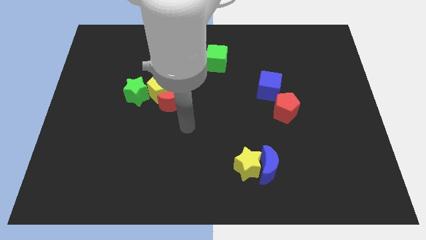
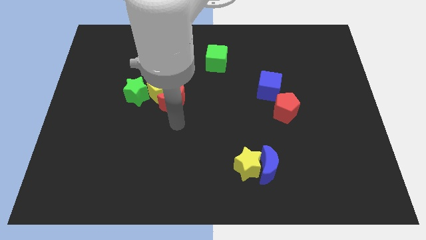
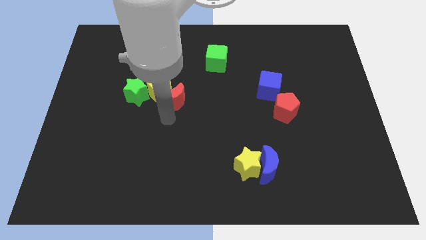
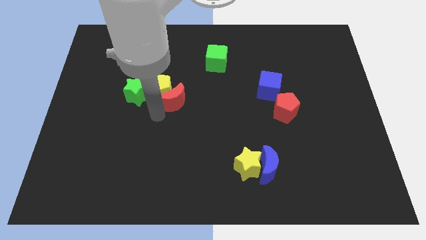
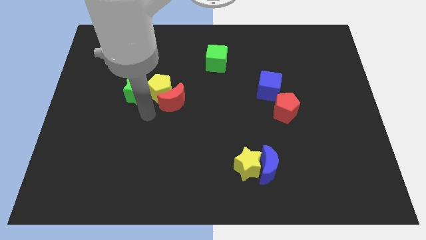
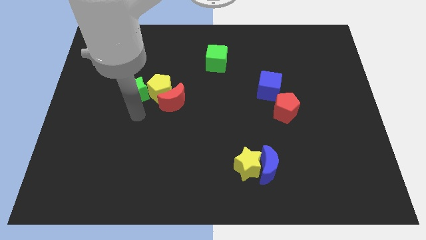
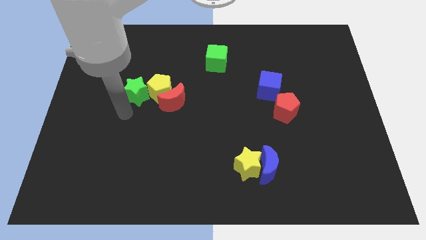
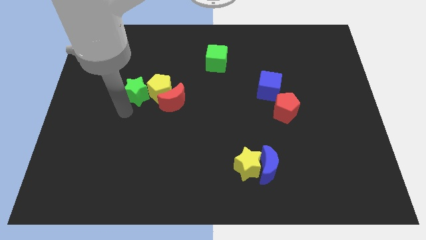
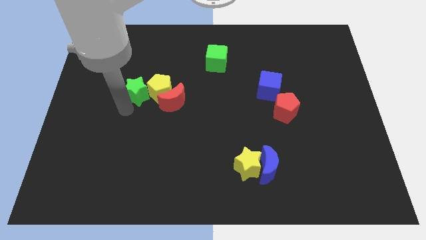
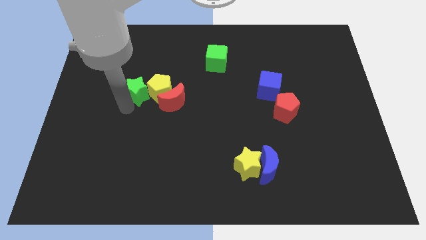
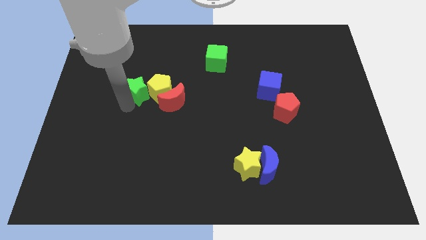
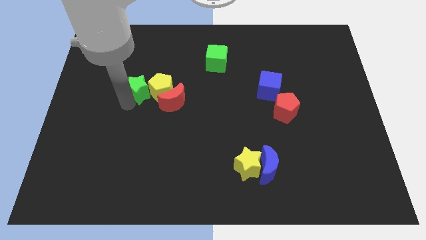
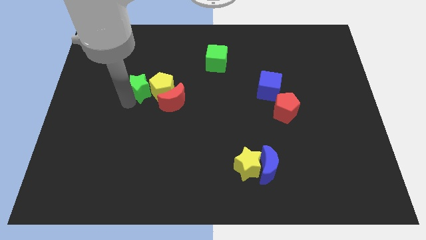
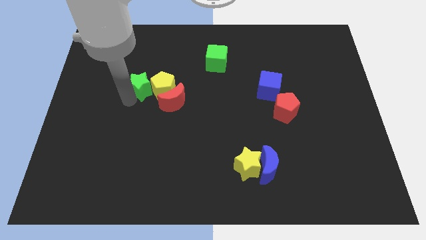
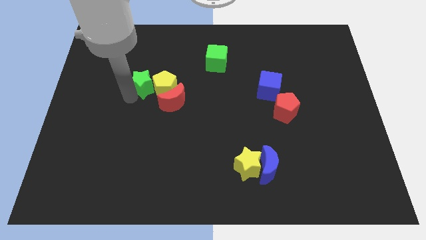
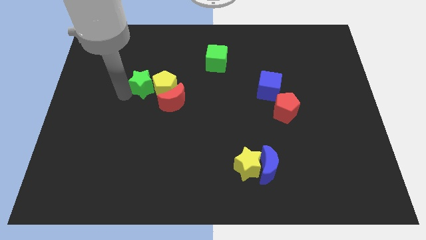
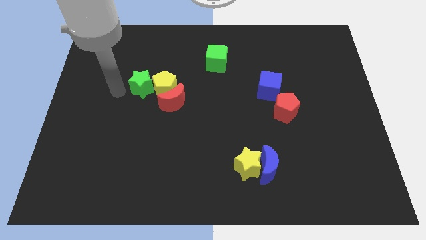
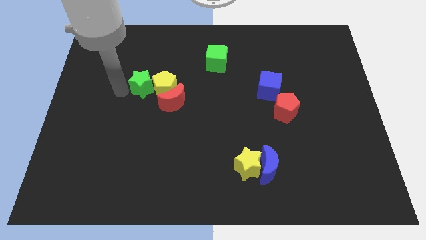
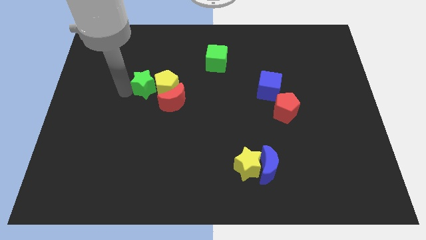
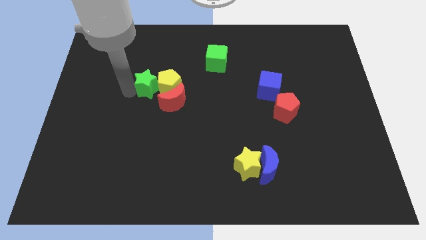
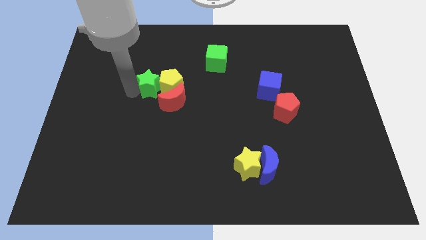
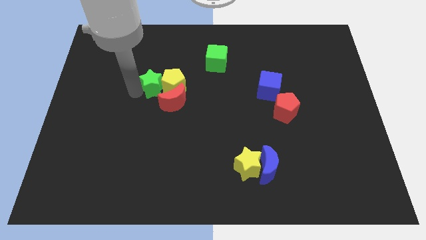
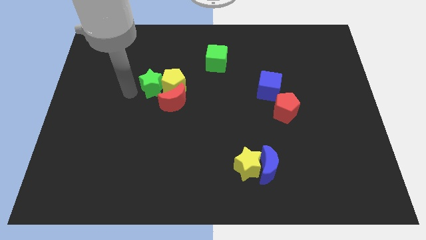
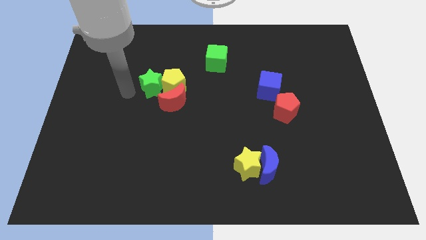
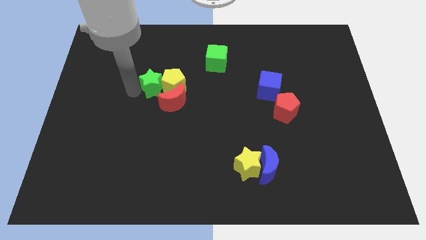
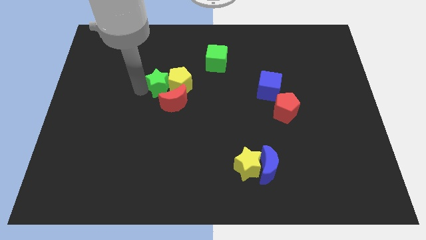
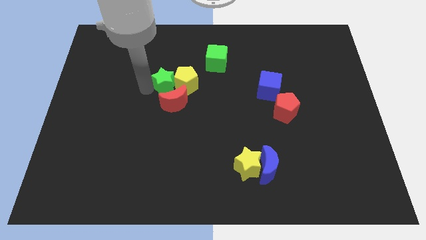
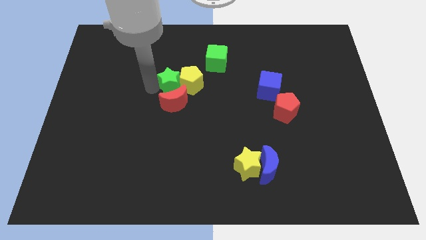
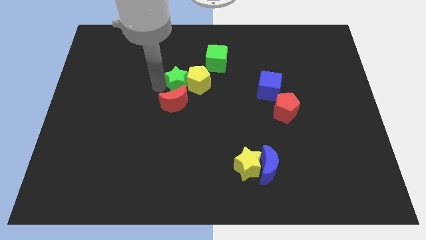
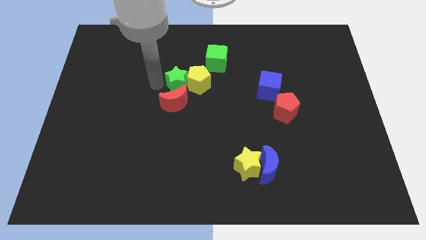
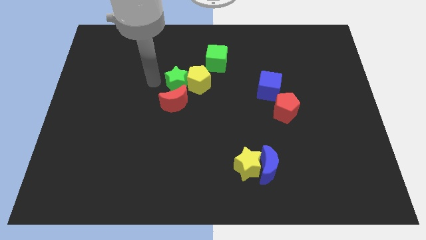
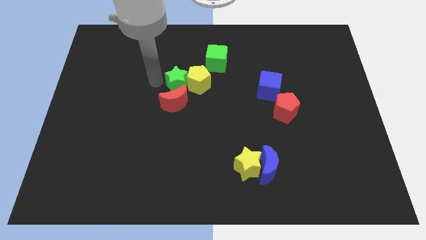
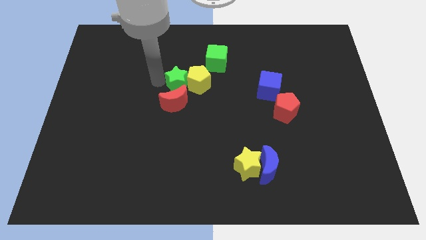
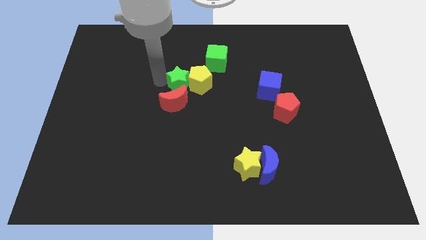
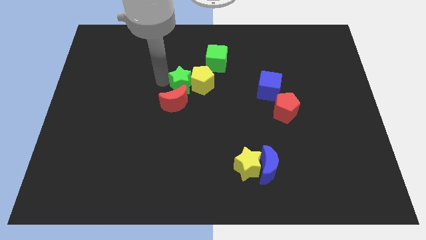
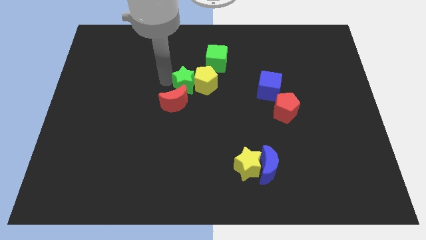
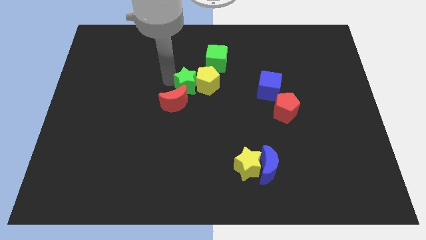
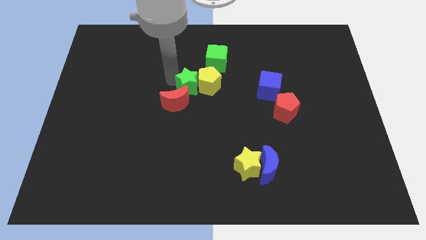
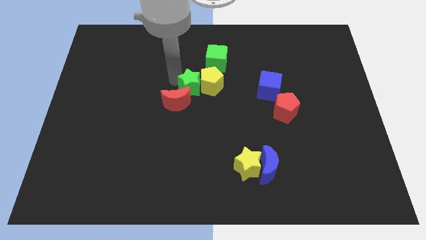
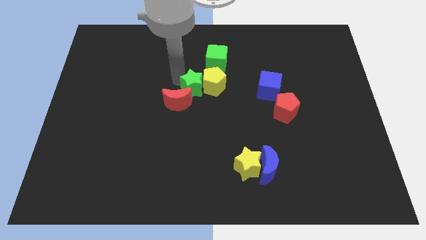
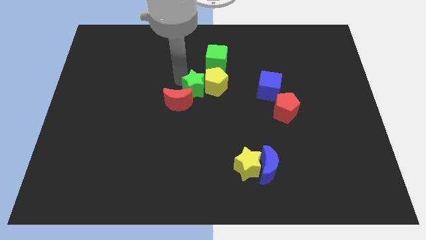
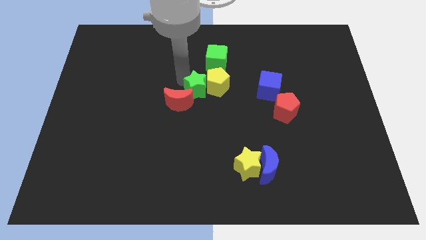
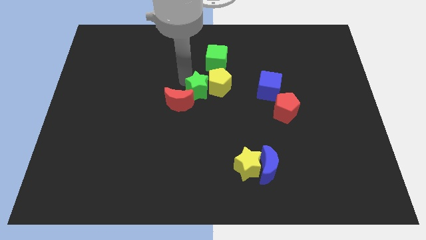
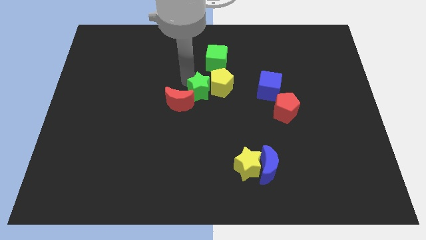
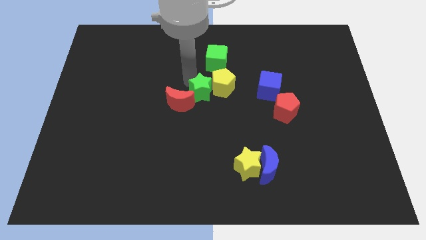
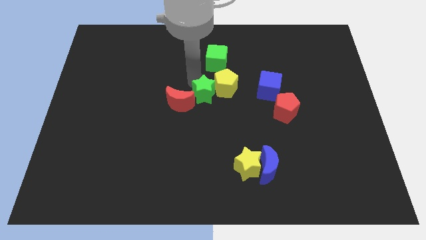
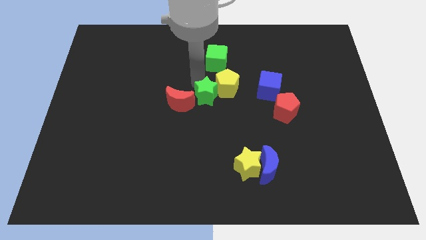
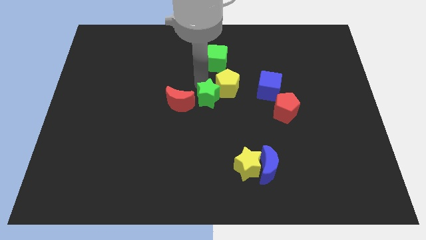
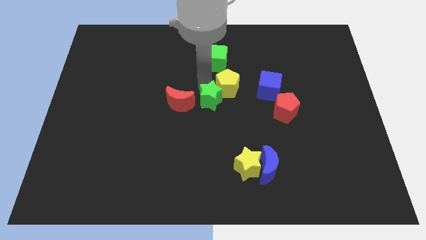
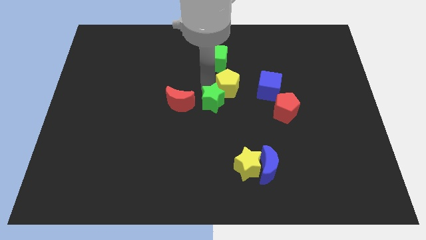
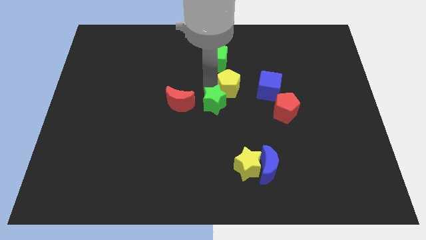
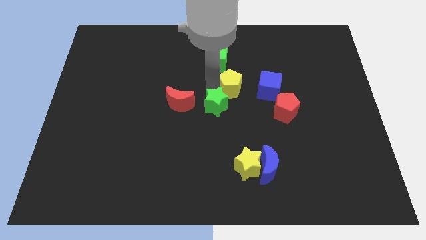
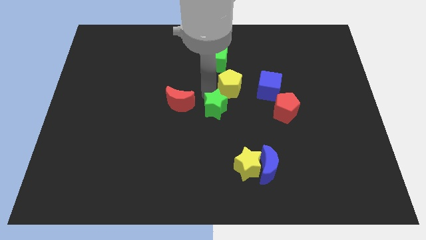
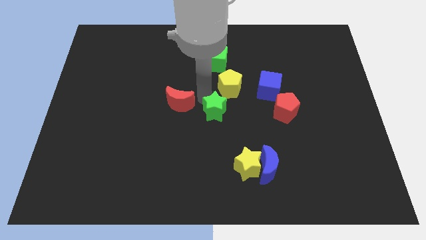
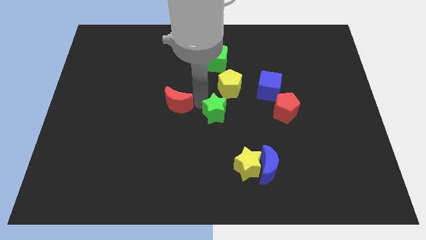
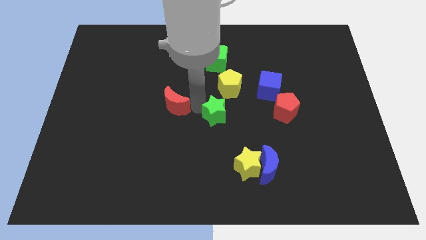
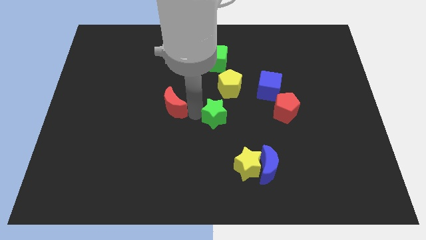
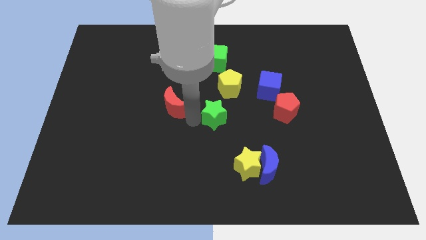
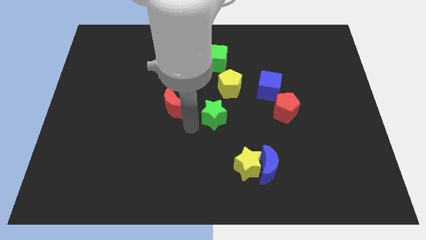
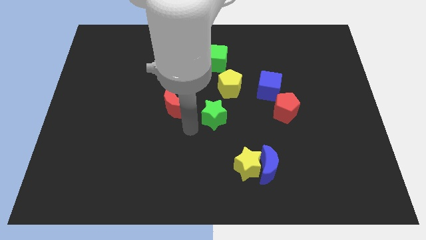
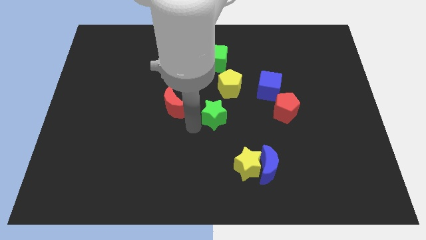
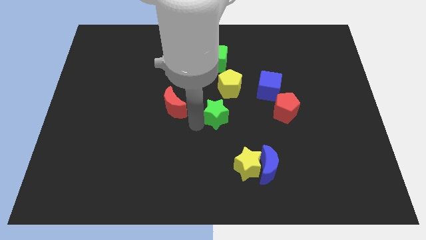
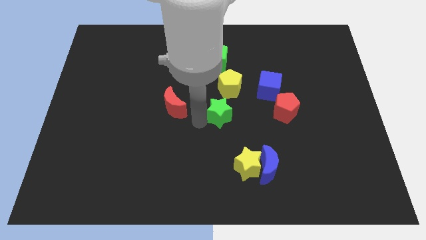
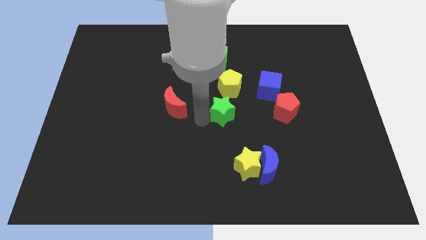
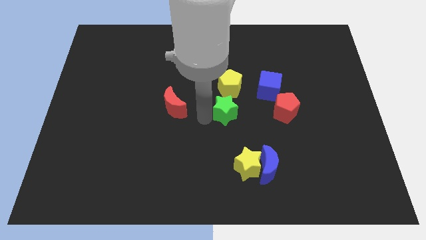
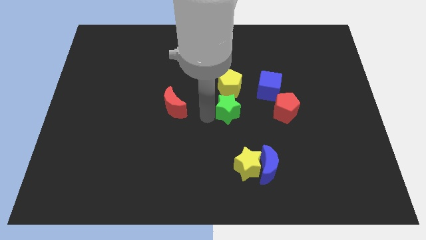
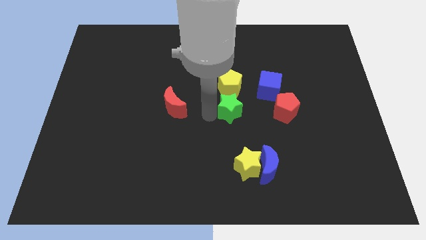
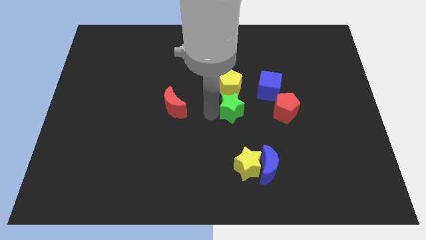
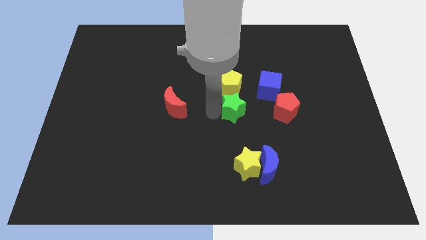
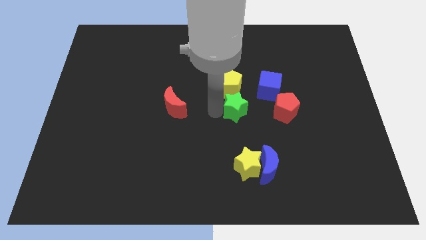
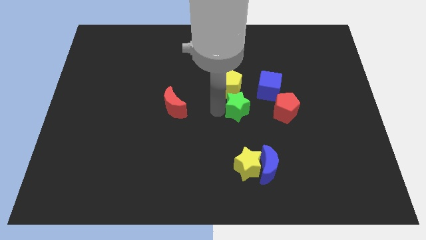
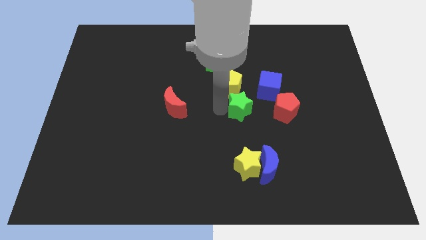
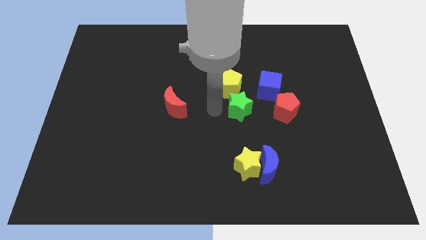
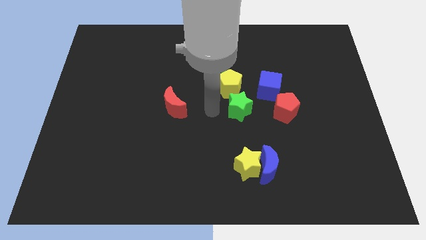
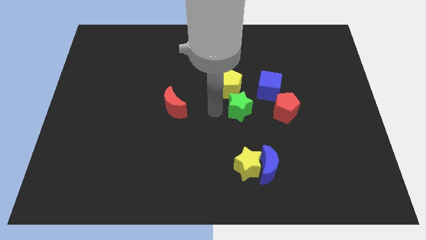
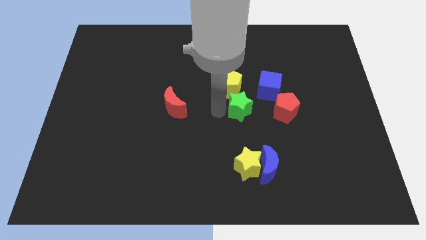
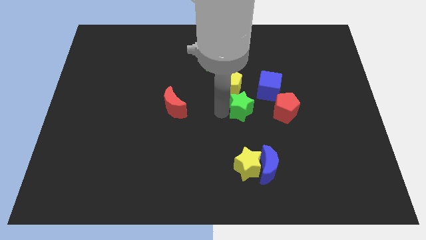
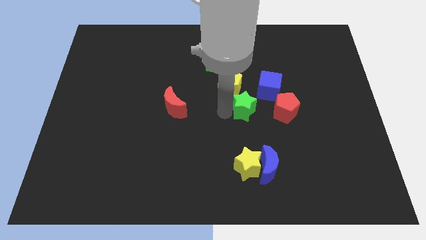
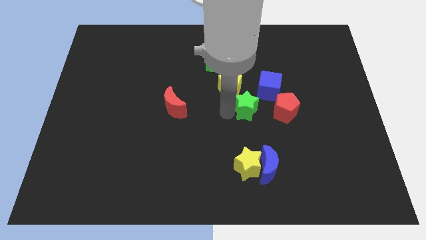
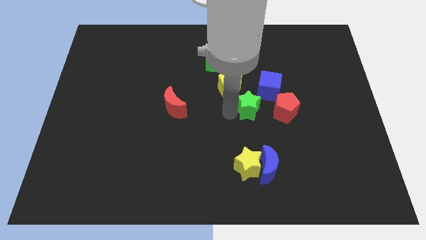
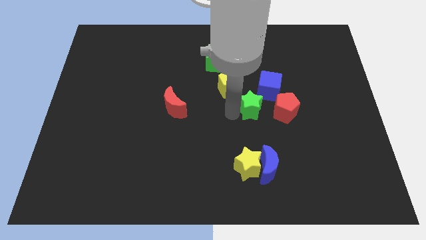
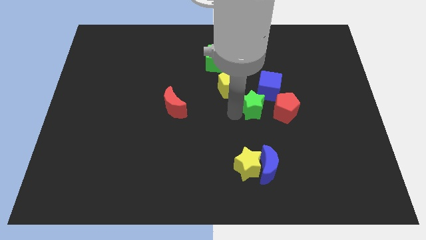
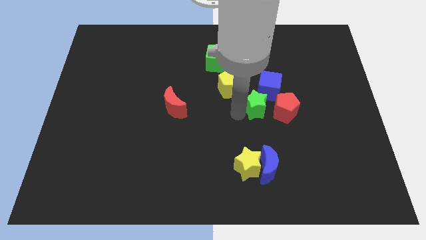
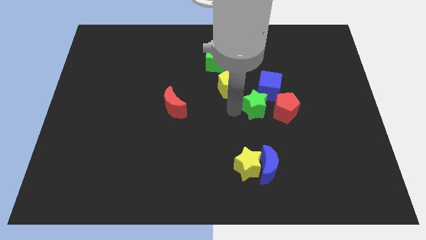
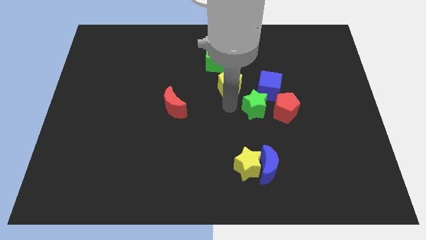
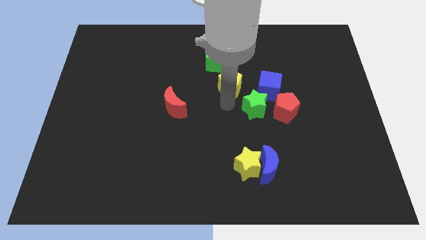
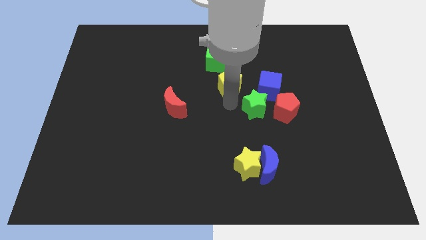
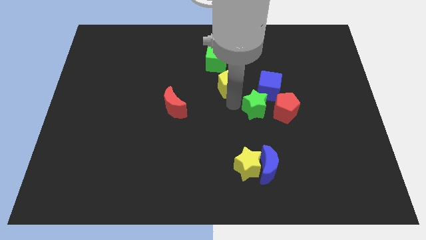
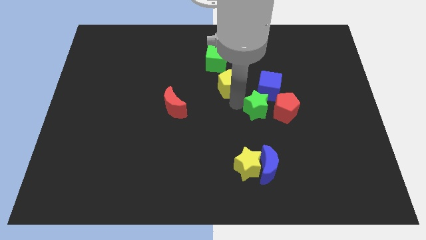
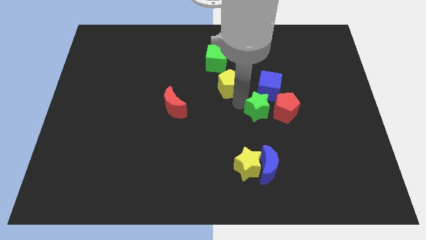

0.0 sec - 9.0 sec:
put the green star towards the red pentagon
